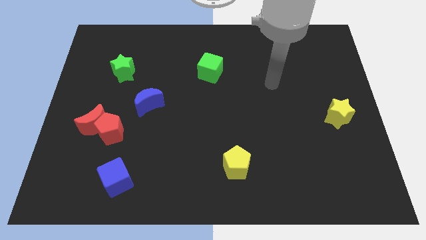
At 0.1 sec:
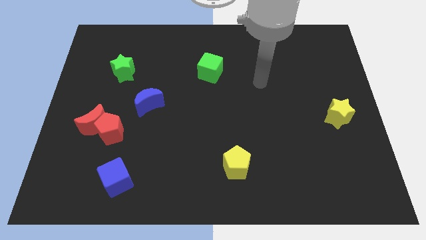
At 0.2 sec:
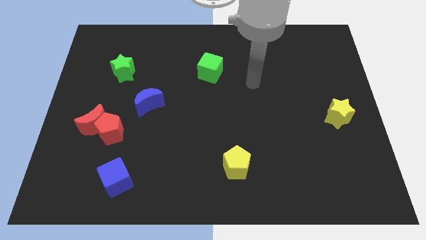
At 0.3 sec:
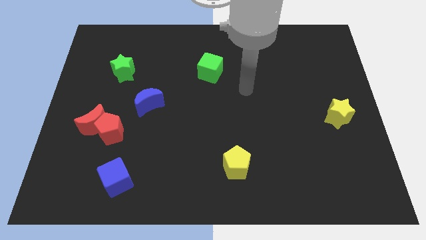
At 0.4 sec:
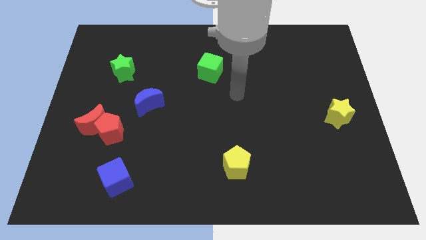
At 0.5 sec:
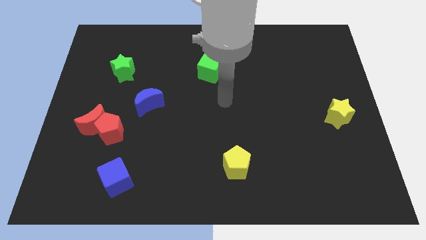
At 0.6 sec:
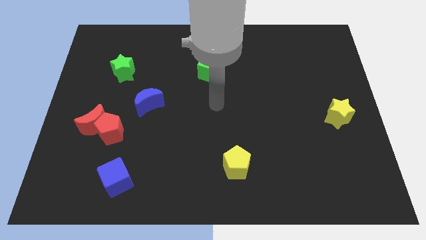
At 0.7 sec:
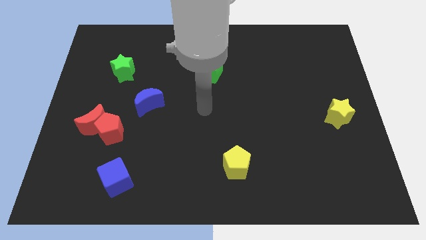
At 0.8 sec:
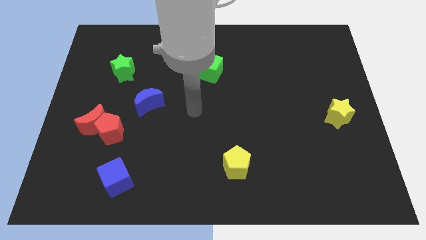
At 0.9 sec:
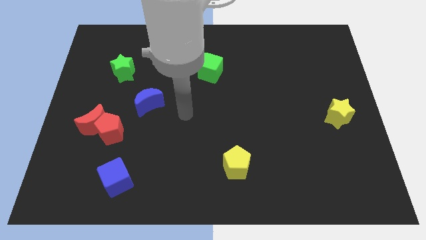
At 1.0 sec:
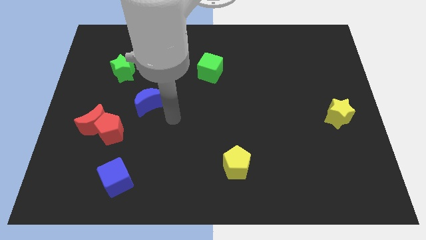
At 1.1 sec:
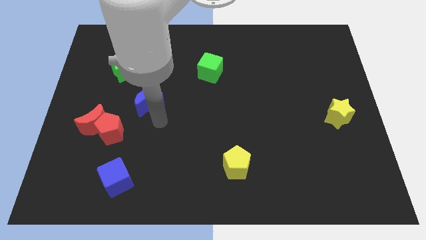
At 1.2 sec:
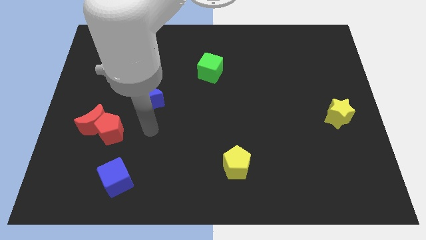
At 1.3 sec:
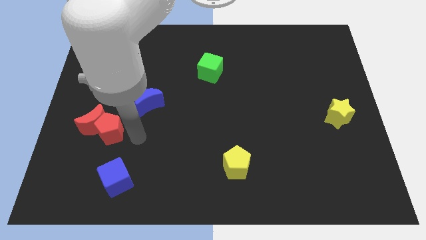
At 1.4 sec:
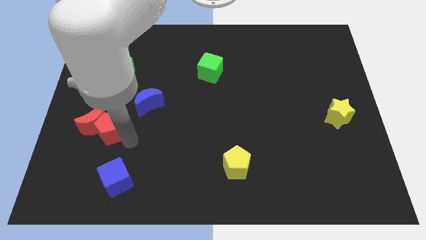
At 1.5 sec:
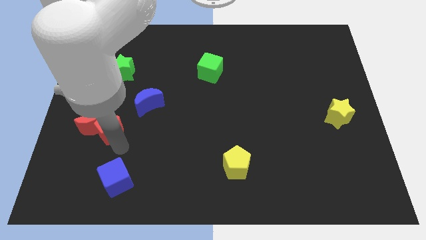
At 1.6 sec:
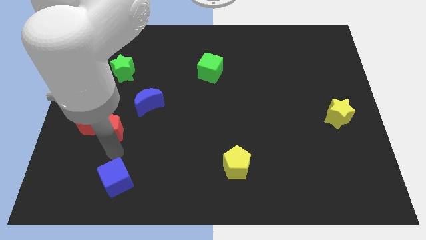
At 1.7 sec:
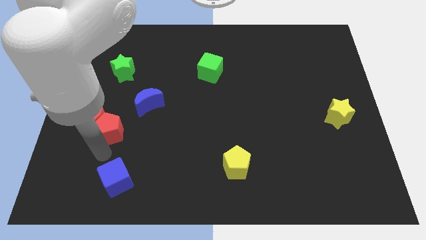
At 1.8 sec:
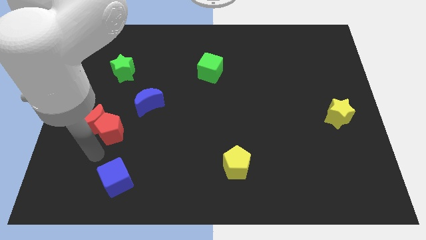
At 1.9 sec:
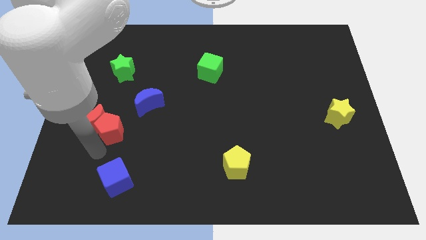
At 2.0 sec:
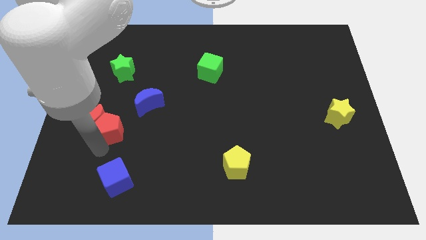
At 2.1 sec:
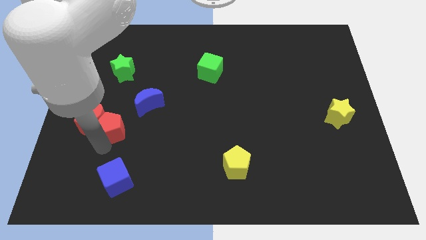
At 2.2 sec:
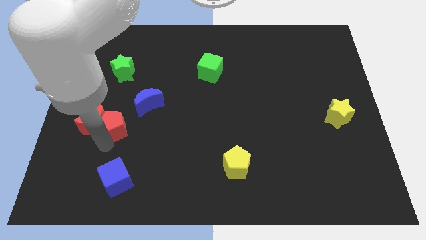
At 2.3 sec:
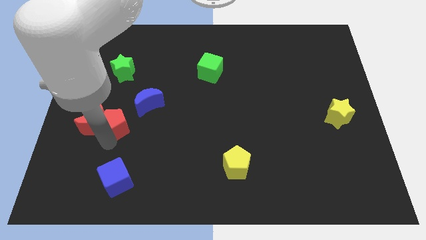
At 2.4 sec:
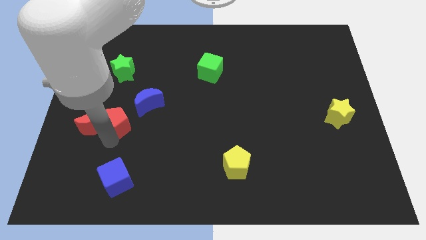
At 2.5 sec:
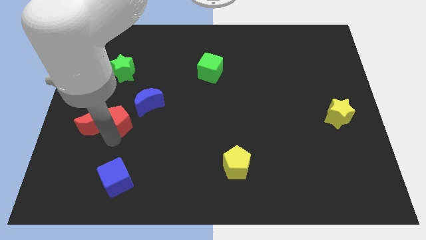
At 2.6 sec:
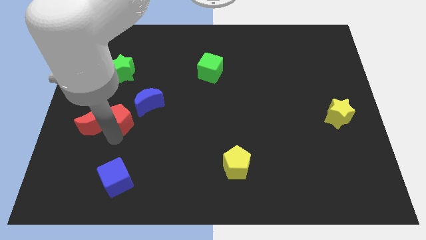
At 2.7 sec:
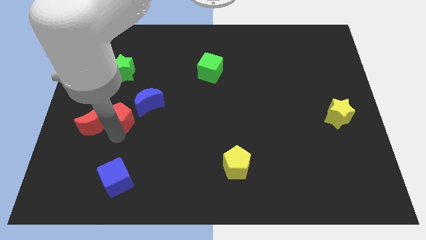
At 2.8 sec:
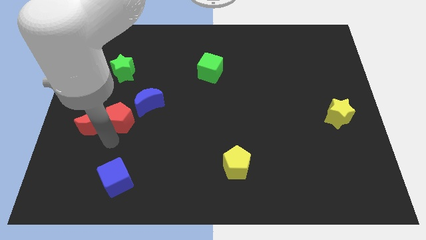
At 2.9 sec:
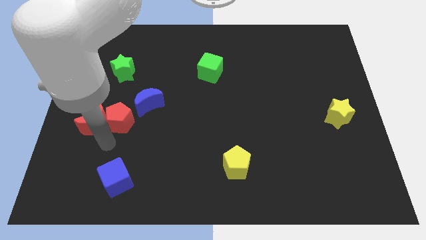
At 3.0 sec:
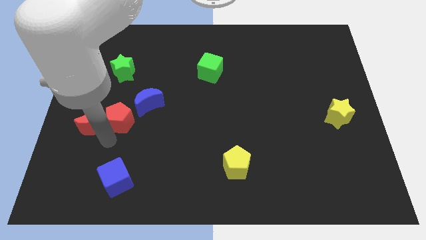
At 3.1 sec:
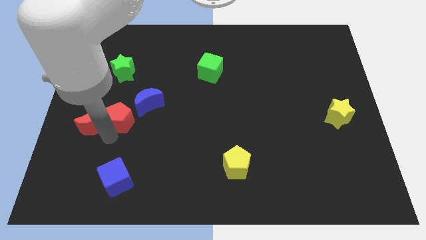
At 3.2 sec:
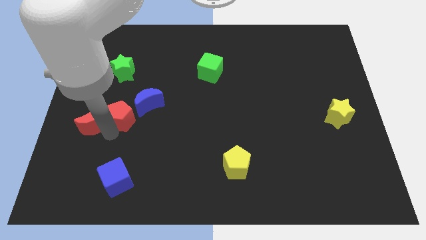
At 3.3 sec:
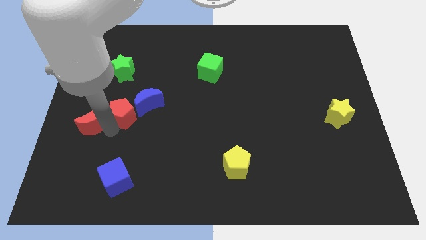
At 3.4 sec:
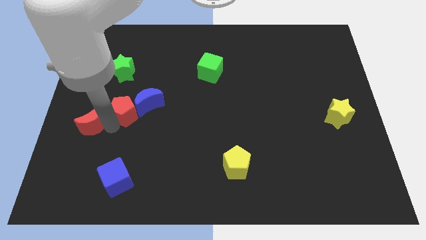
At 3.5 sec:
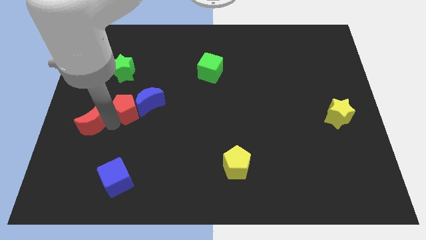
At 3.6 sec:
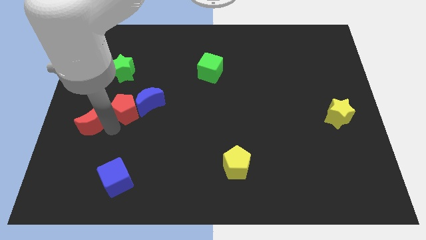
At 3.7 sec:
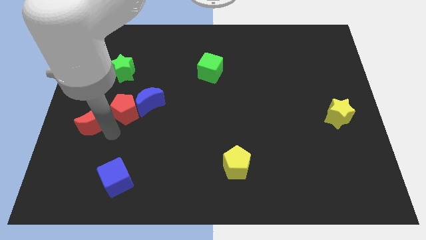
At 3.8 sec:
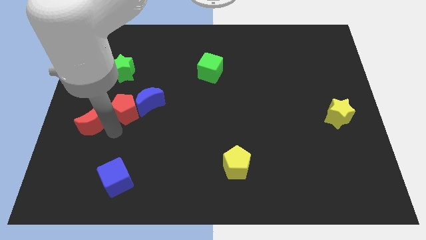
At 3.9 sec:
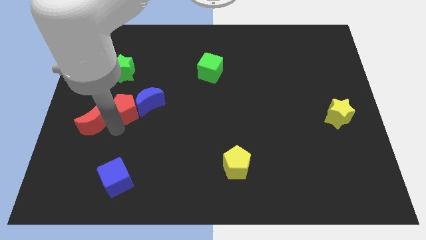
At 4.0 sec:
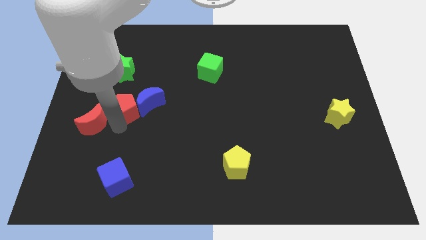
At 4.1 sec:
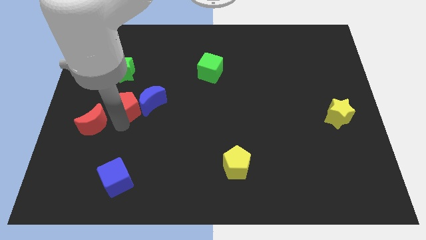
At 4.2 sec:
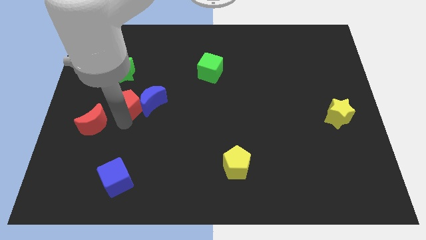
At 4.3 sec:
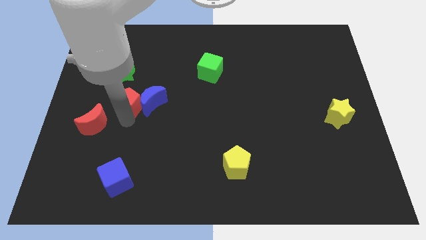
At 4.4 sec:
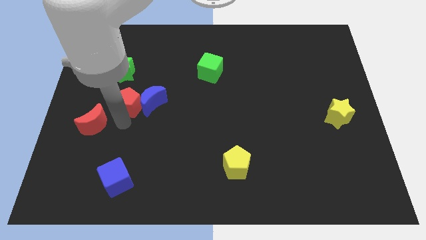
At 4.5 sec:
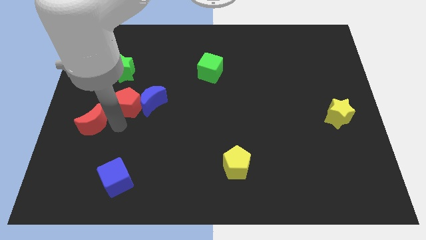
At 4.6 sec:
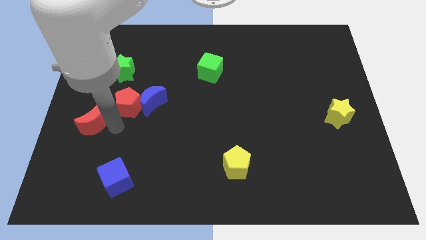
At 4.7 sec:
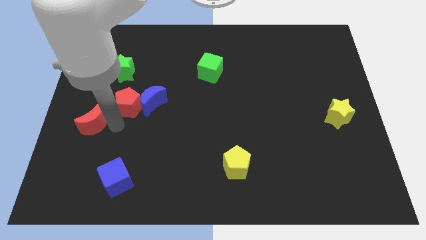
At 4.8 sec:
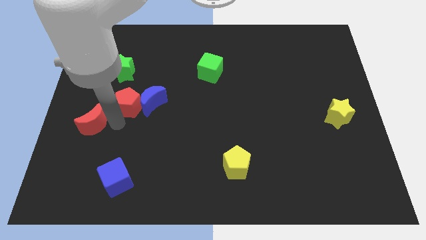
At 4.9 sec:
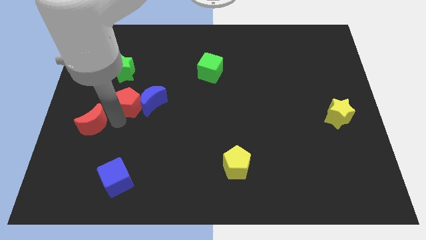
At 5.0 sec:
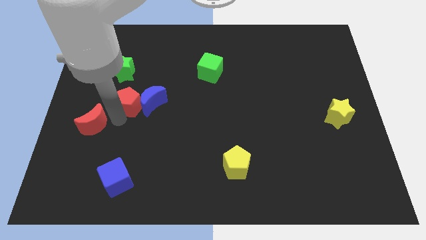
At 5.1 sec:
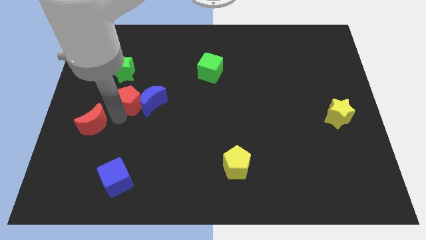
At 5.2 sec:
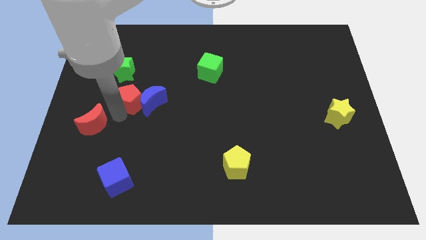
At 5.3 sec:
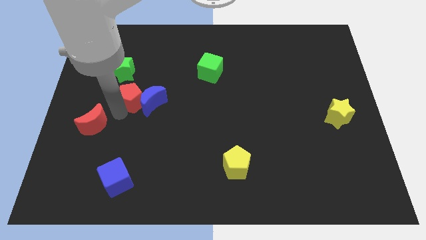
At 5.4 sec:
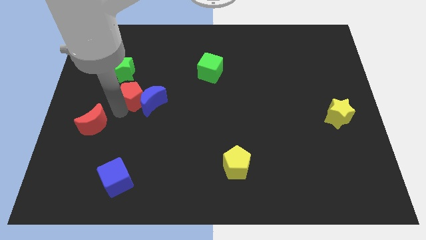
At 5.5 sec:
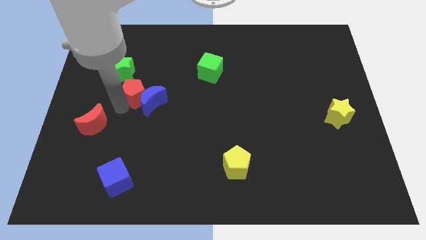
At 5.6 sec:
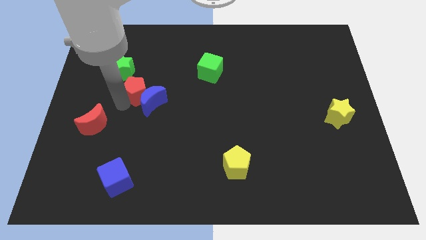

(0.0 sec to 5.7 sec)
put the red pentagon to the top side of the blue moon

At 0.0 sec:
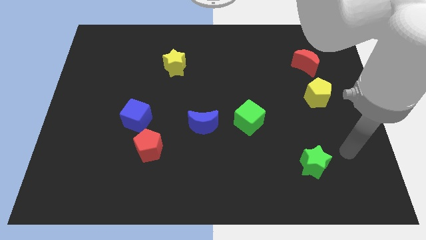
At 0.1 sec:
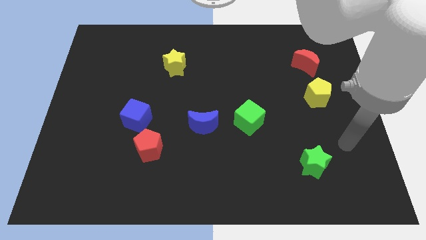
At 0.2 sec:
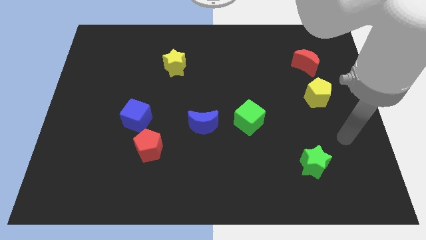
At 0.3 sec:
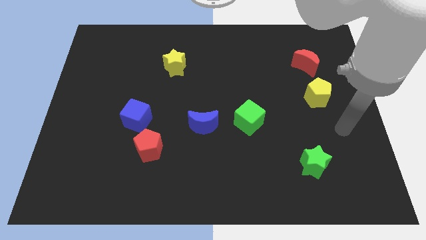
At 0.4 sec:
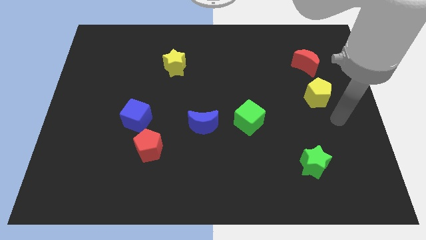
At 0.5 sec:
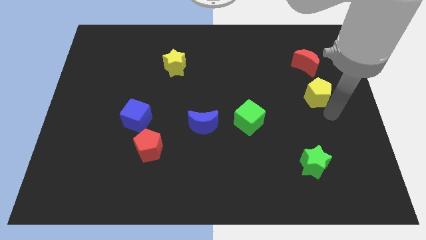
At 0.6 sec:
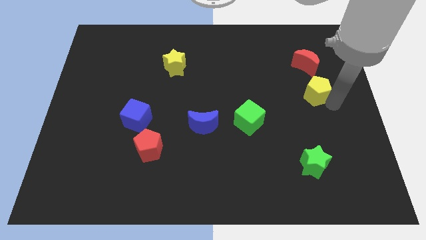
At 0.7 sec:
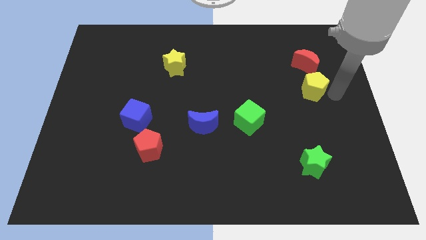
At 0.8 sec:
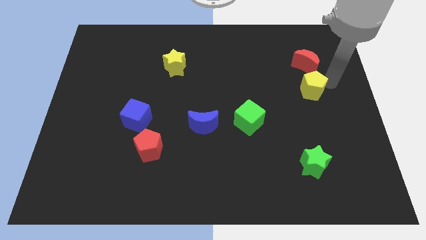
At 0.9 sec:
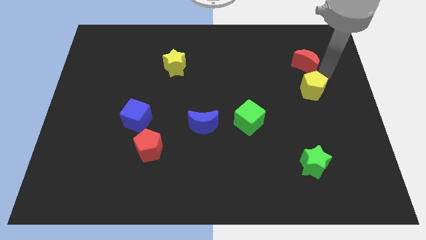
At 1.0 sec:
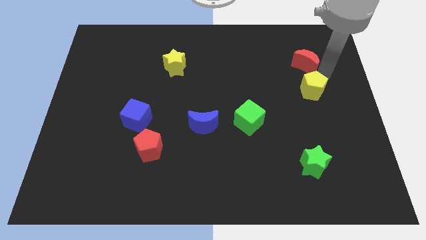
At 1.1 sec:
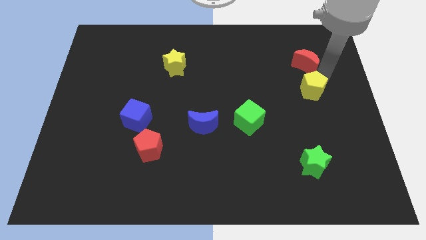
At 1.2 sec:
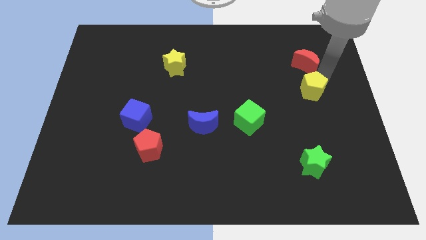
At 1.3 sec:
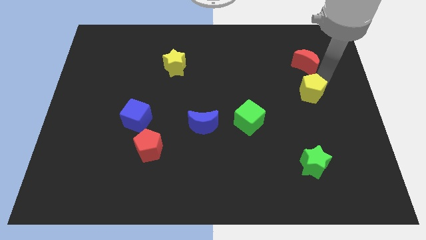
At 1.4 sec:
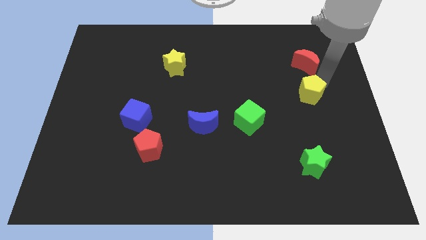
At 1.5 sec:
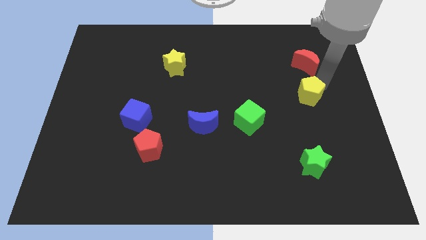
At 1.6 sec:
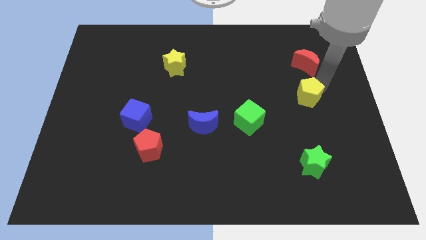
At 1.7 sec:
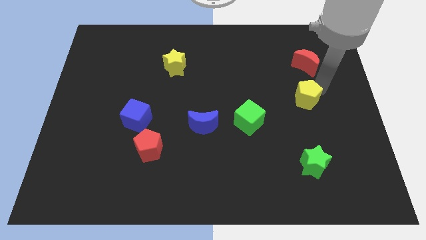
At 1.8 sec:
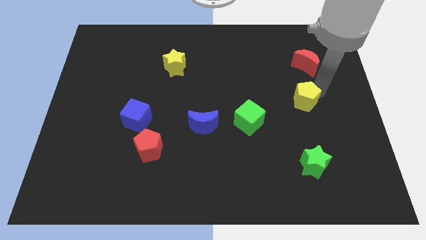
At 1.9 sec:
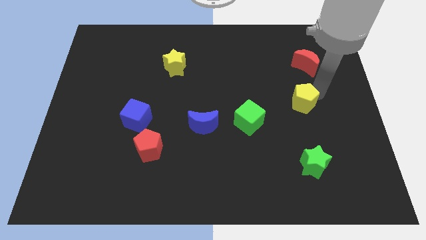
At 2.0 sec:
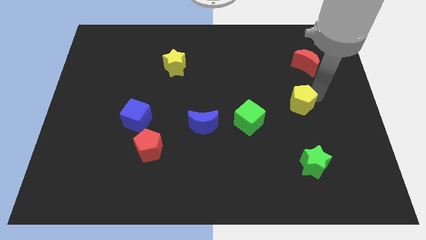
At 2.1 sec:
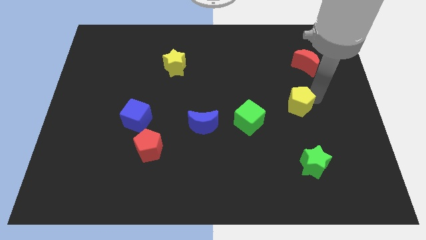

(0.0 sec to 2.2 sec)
push the yellow pentagon right of the green cube
